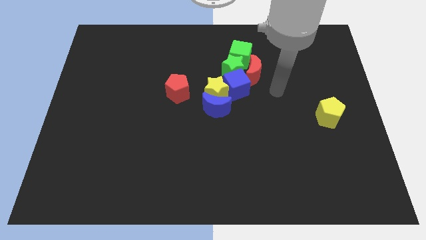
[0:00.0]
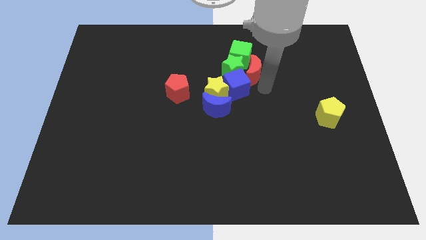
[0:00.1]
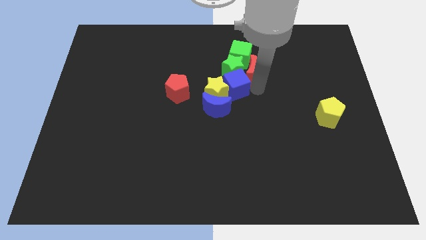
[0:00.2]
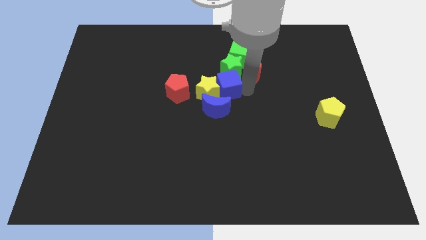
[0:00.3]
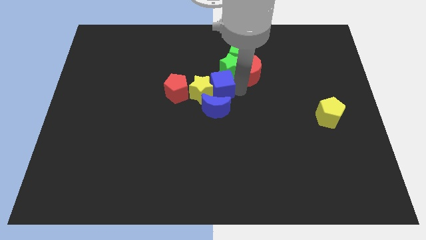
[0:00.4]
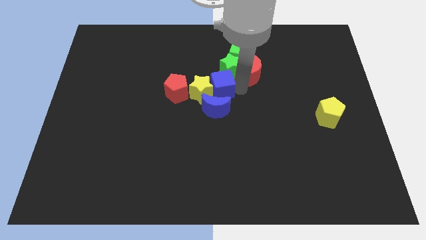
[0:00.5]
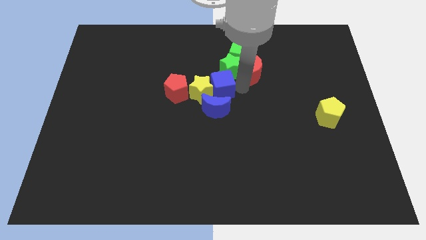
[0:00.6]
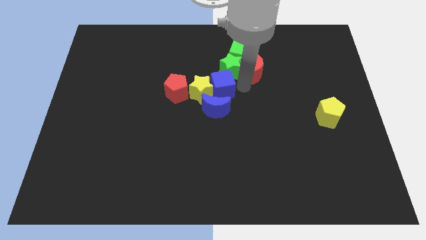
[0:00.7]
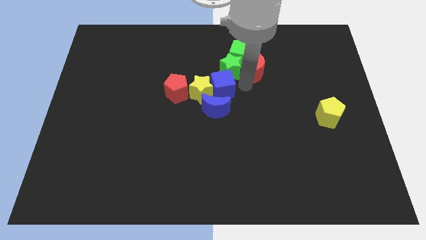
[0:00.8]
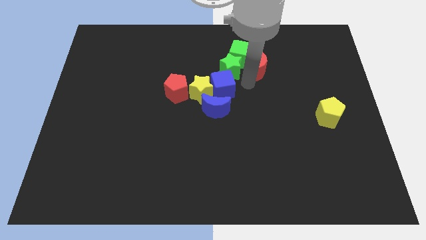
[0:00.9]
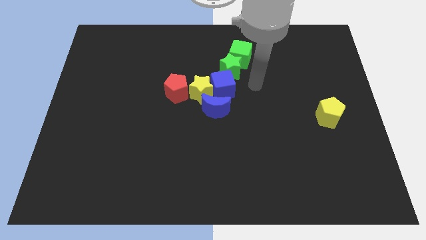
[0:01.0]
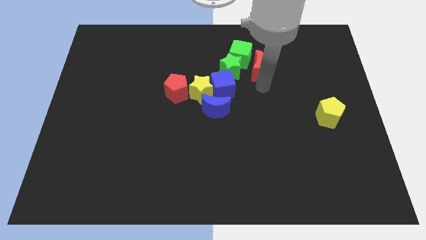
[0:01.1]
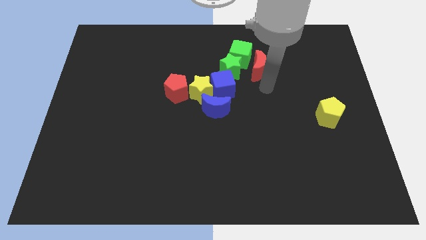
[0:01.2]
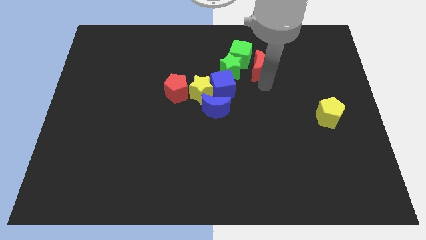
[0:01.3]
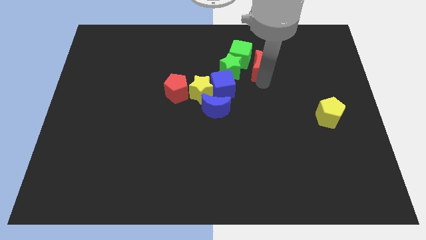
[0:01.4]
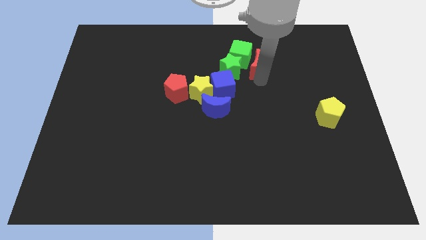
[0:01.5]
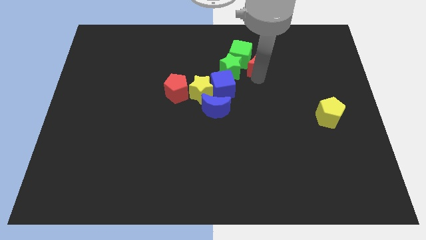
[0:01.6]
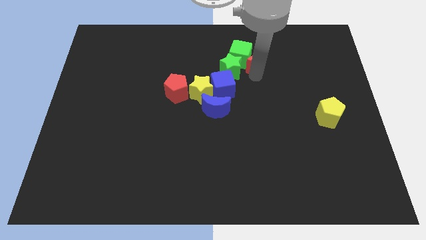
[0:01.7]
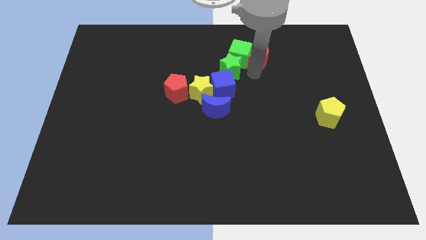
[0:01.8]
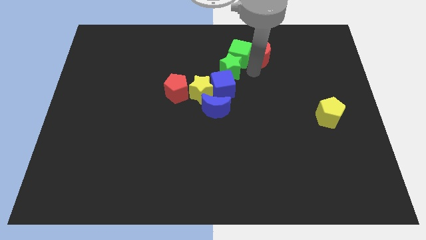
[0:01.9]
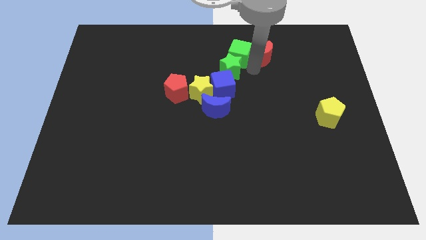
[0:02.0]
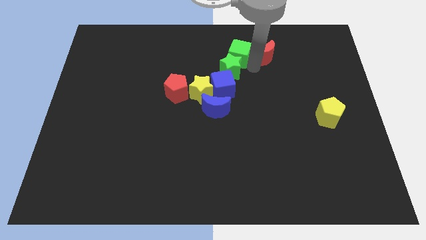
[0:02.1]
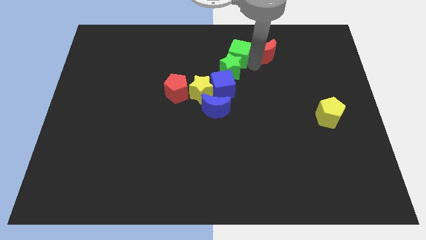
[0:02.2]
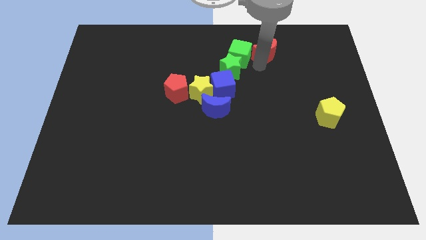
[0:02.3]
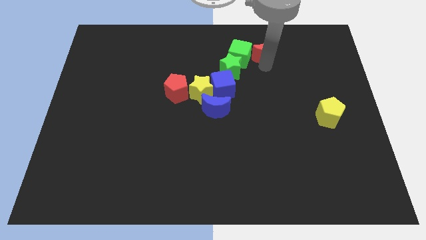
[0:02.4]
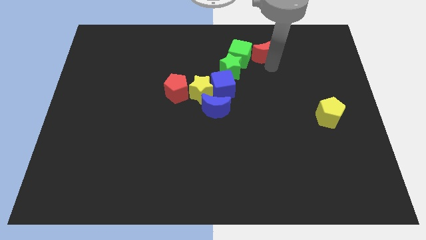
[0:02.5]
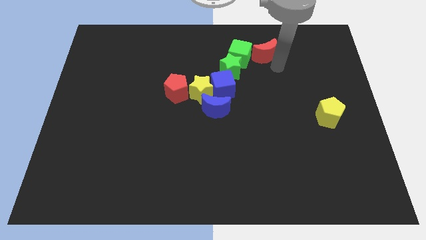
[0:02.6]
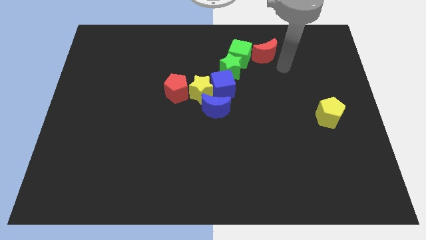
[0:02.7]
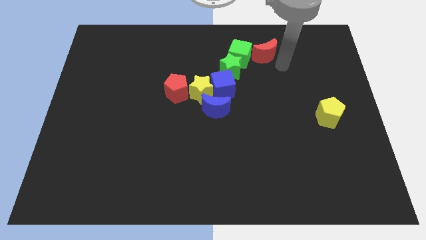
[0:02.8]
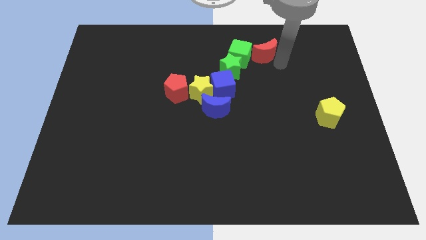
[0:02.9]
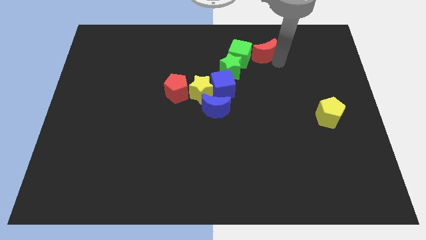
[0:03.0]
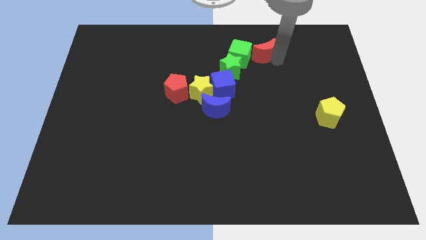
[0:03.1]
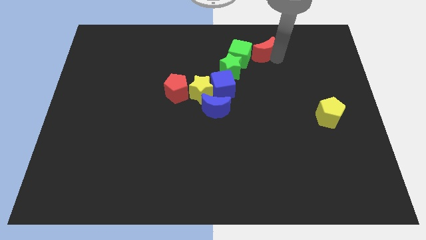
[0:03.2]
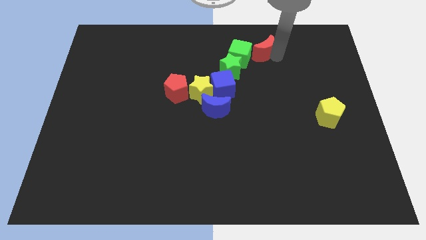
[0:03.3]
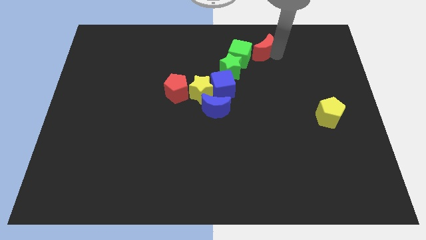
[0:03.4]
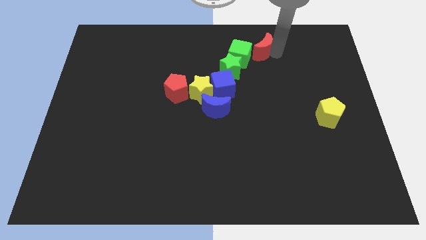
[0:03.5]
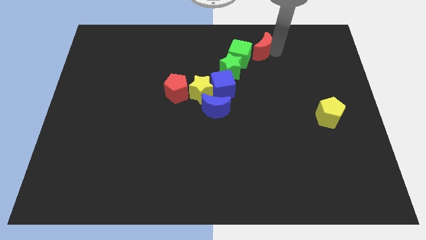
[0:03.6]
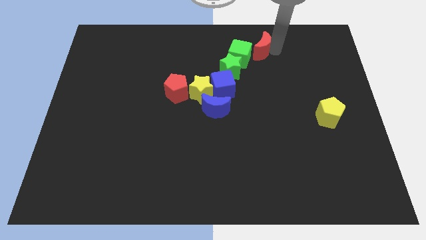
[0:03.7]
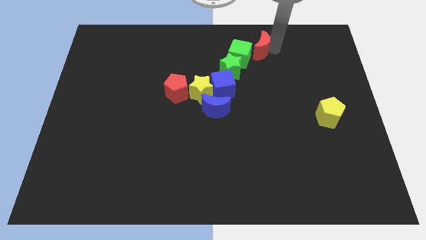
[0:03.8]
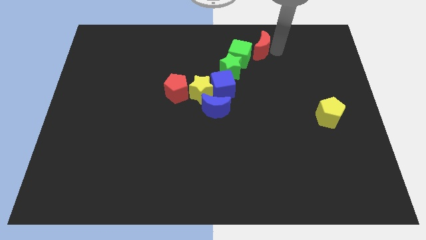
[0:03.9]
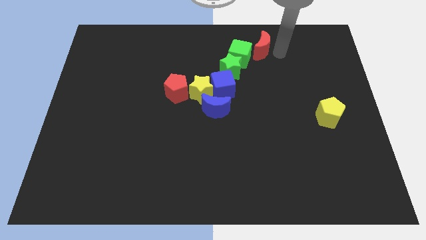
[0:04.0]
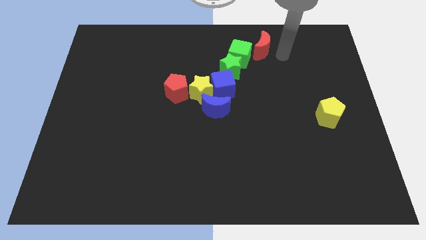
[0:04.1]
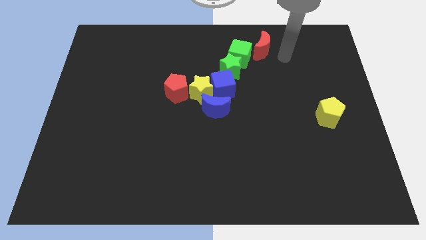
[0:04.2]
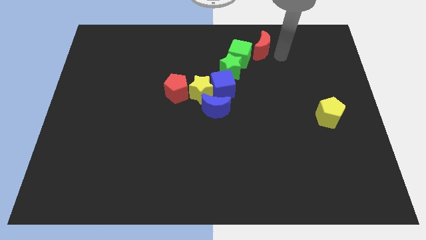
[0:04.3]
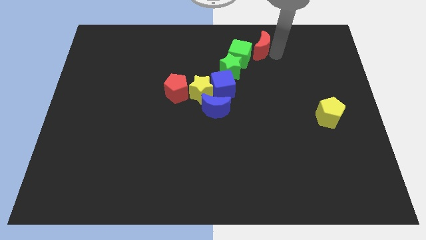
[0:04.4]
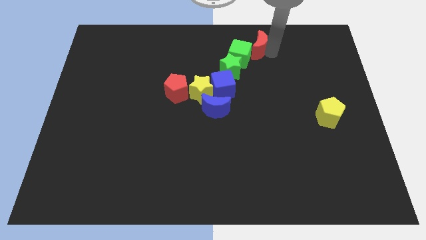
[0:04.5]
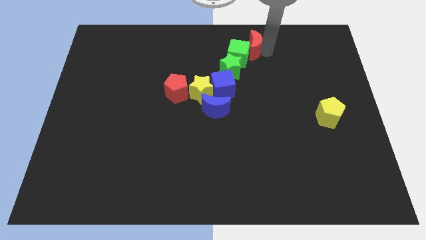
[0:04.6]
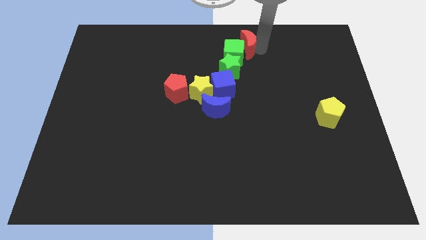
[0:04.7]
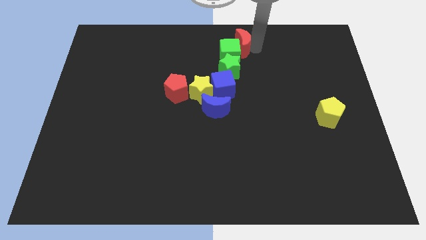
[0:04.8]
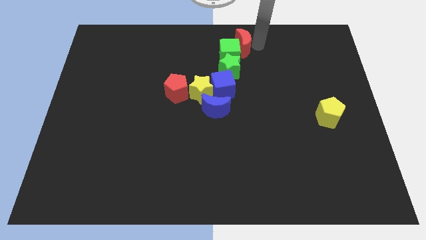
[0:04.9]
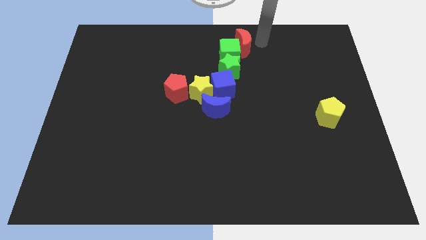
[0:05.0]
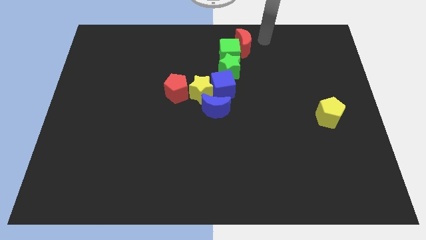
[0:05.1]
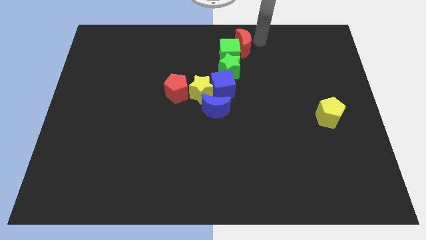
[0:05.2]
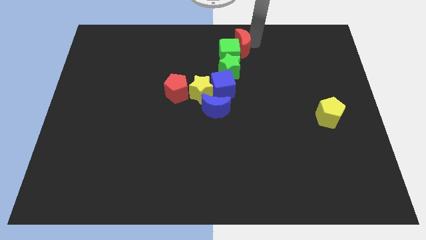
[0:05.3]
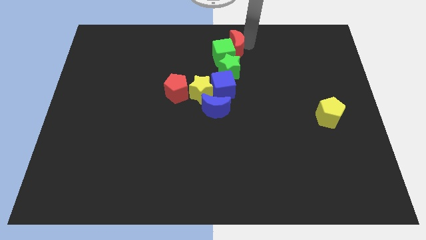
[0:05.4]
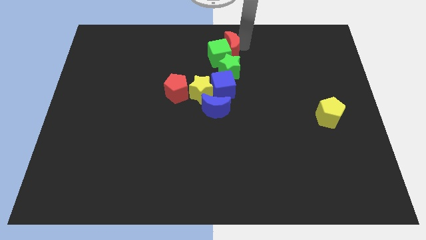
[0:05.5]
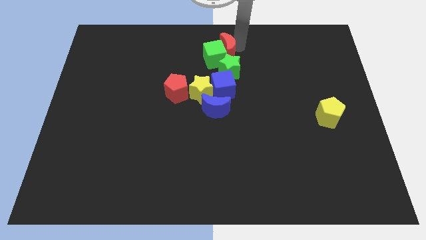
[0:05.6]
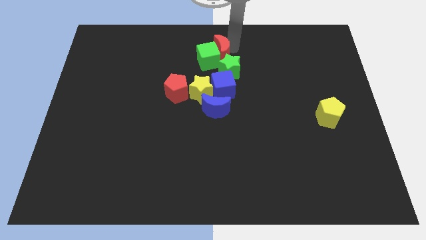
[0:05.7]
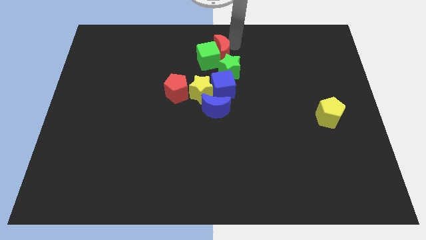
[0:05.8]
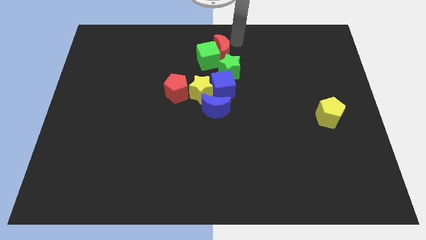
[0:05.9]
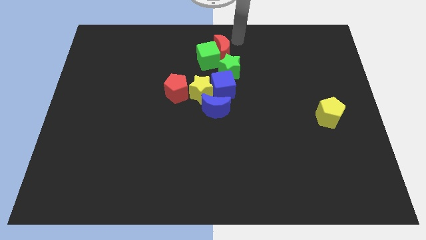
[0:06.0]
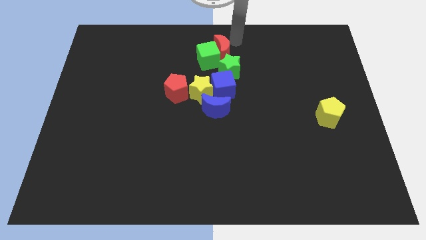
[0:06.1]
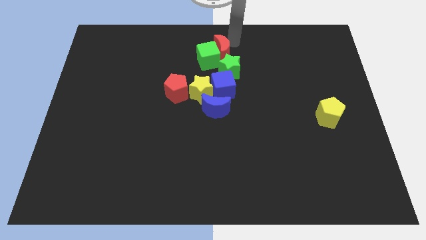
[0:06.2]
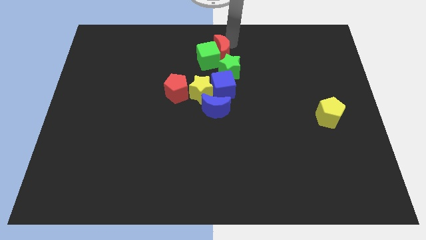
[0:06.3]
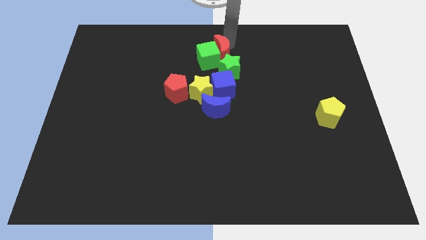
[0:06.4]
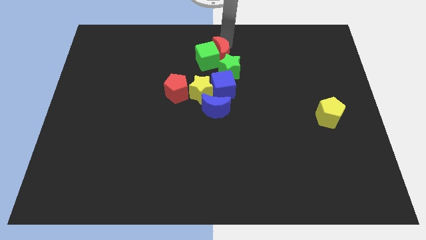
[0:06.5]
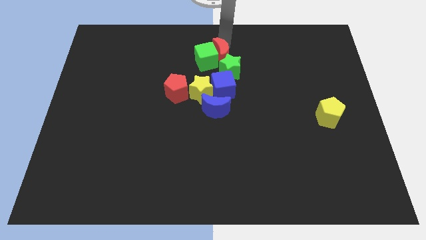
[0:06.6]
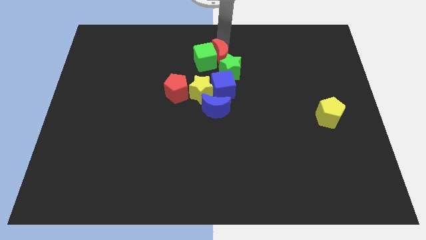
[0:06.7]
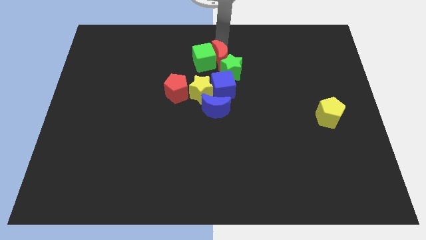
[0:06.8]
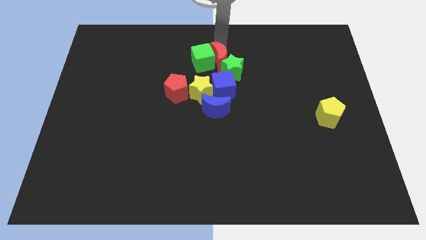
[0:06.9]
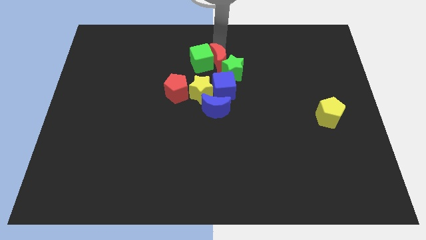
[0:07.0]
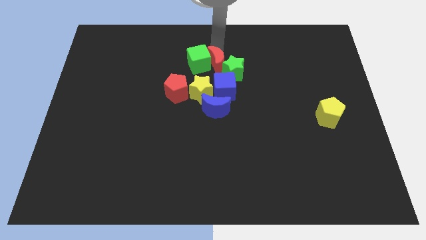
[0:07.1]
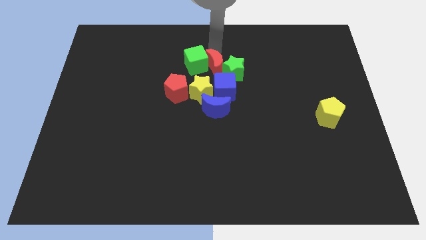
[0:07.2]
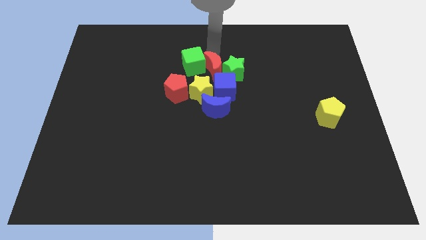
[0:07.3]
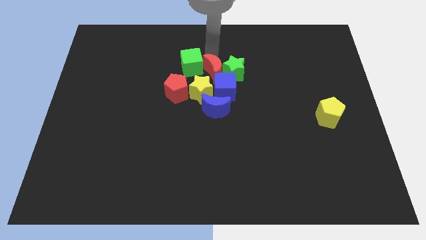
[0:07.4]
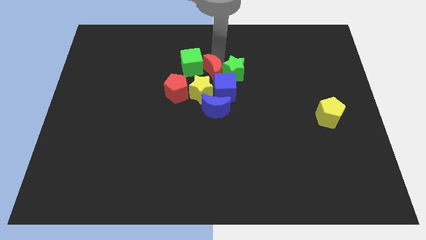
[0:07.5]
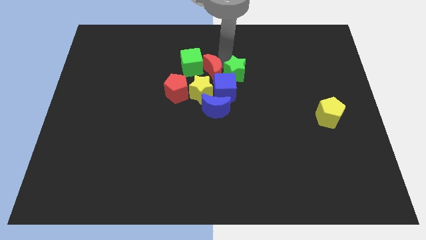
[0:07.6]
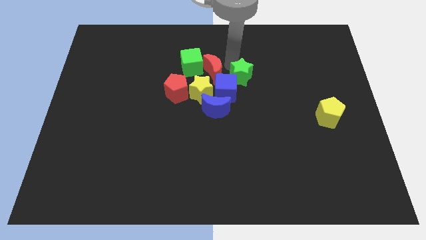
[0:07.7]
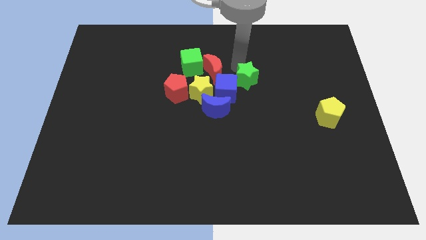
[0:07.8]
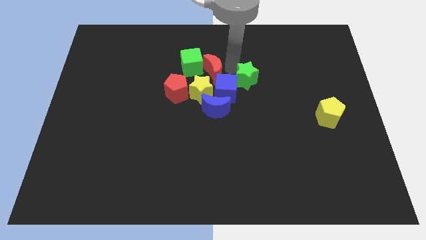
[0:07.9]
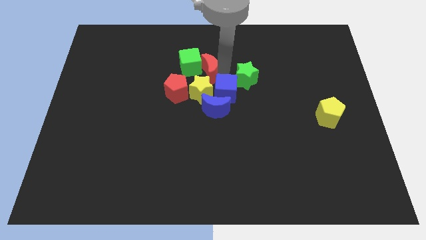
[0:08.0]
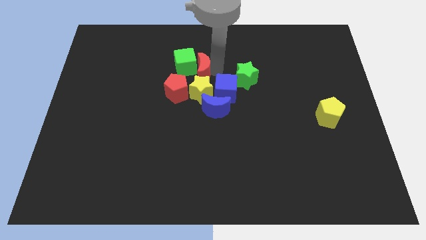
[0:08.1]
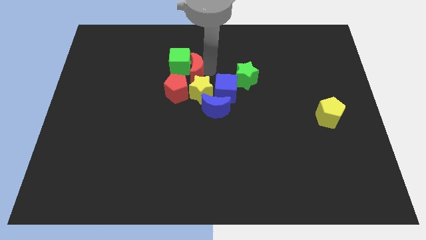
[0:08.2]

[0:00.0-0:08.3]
push the red moon to the top left side of the yellow star

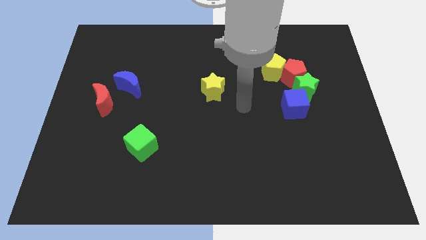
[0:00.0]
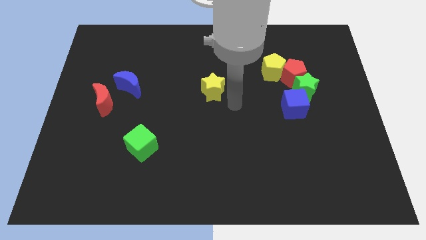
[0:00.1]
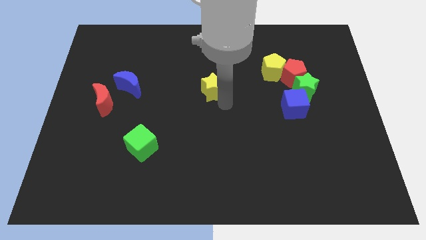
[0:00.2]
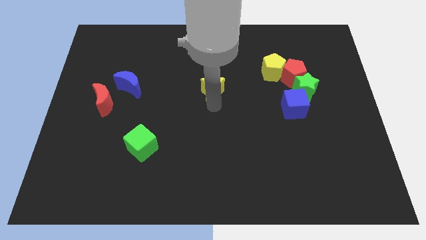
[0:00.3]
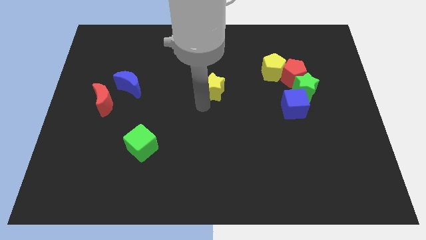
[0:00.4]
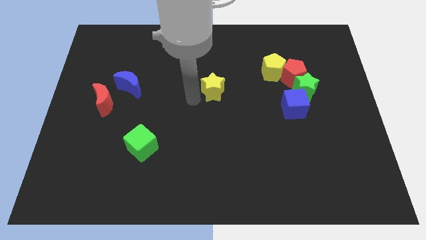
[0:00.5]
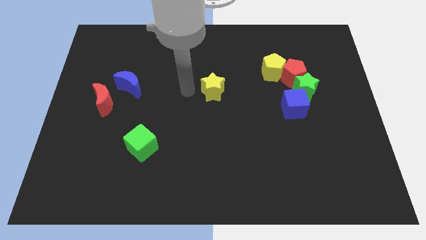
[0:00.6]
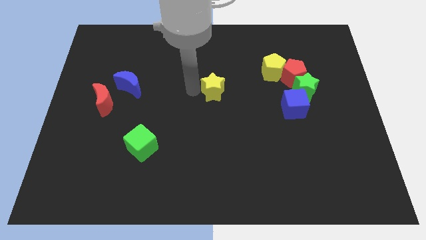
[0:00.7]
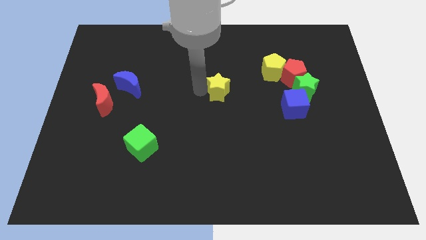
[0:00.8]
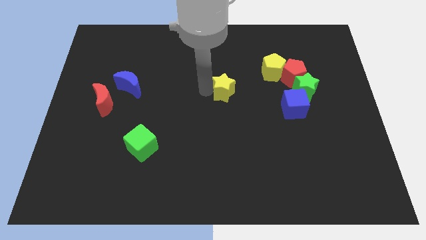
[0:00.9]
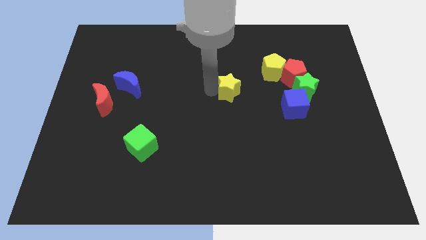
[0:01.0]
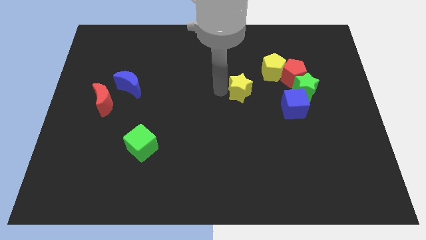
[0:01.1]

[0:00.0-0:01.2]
move the yellow star to the left side of the green star
